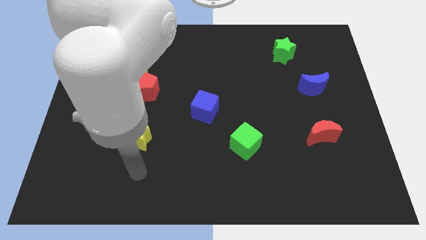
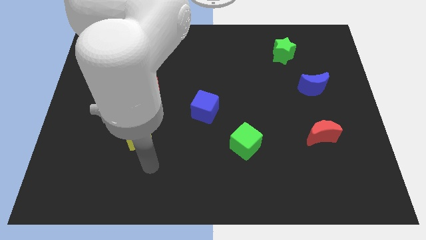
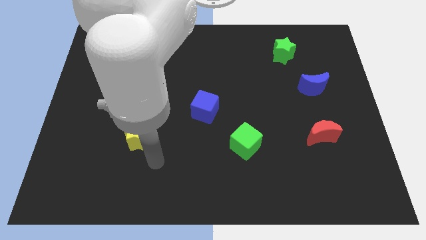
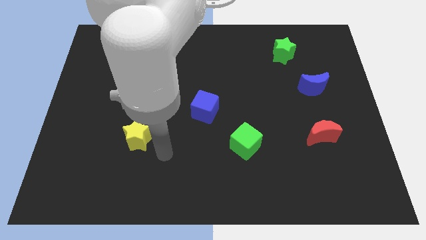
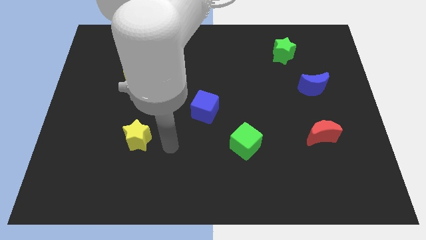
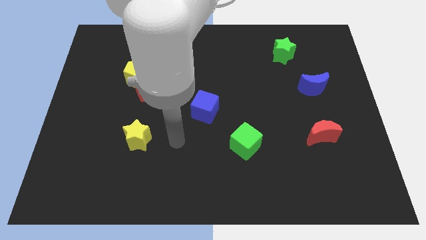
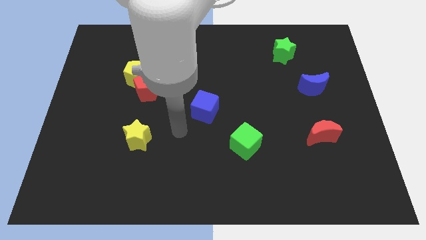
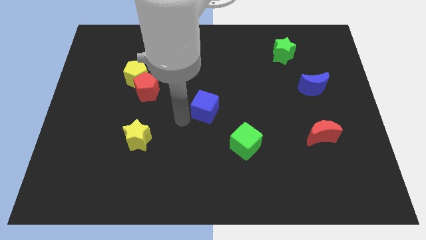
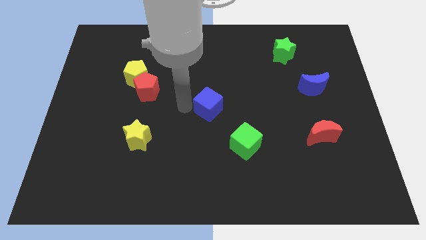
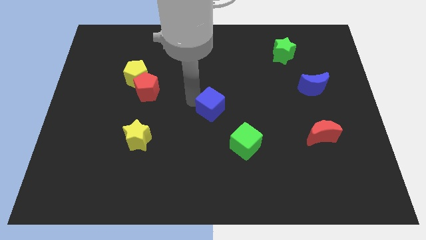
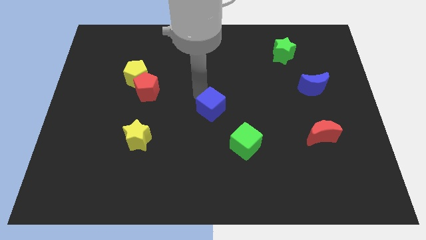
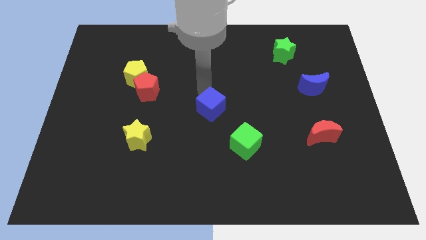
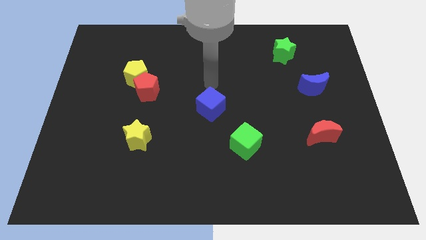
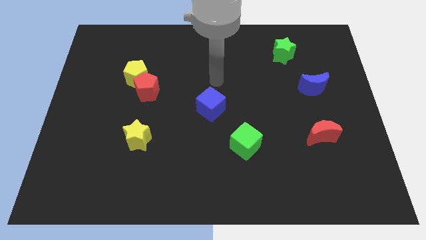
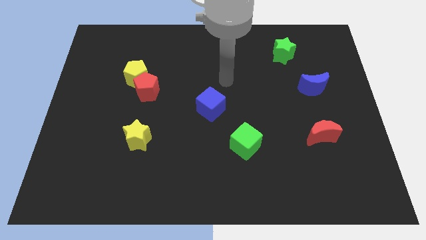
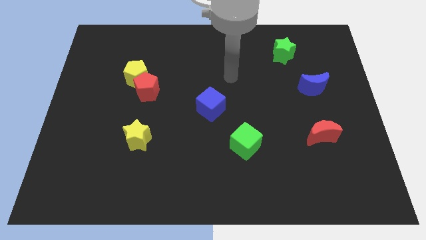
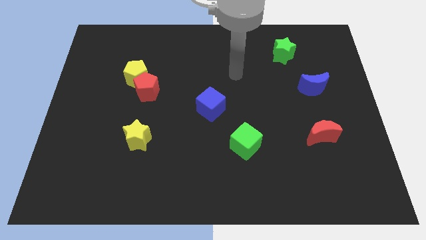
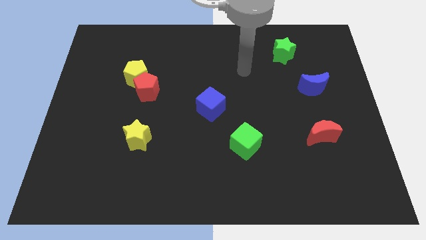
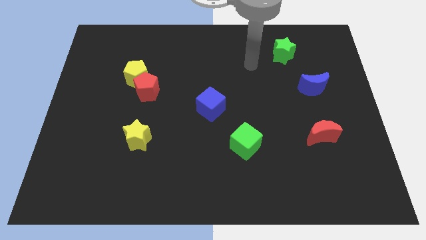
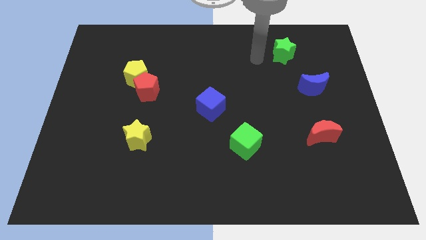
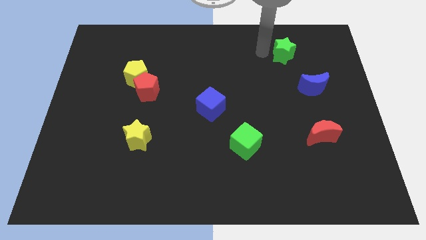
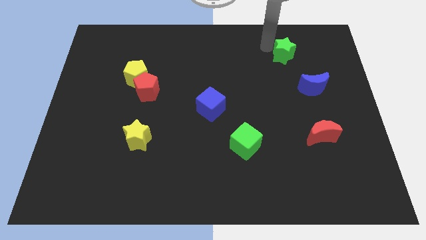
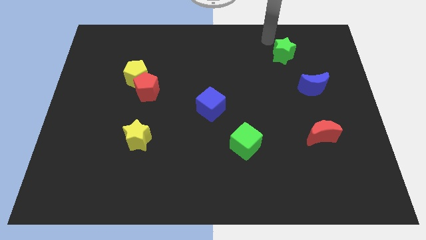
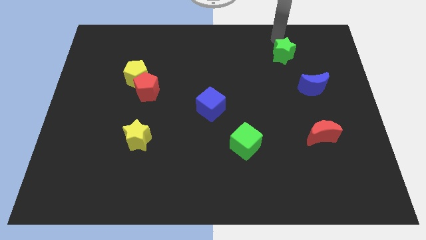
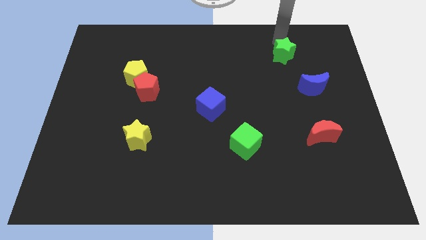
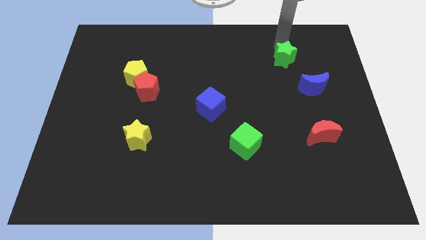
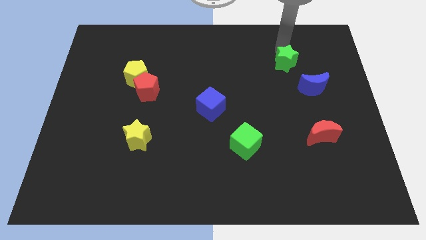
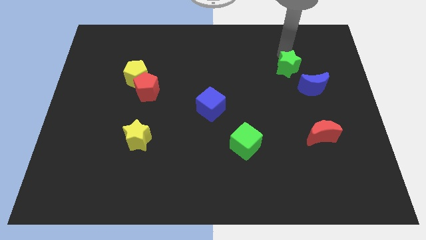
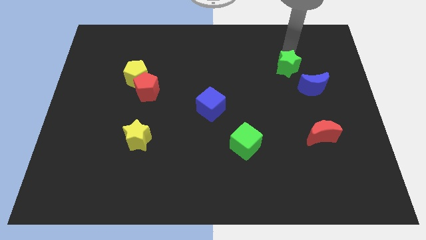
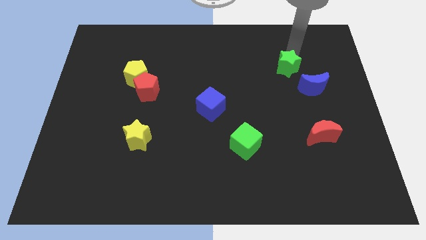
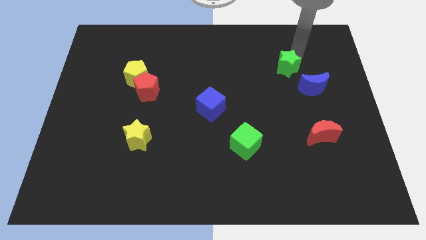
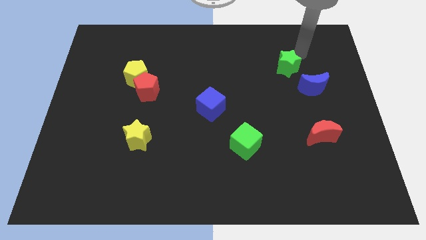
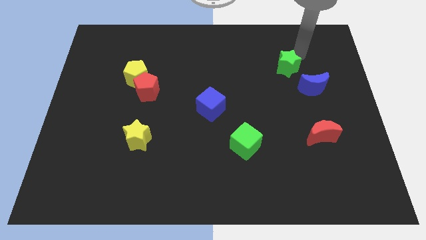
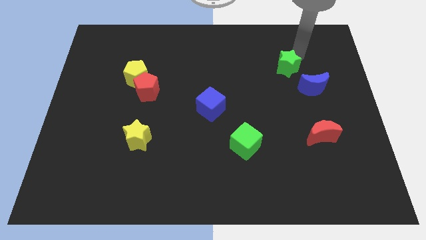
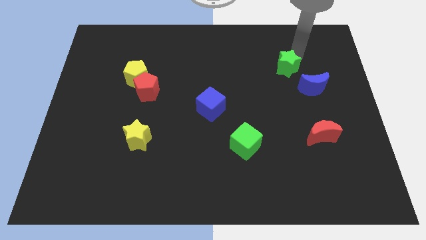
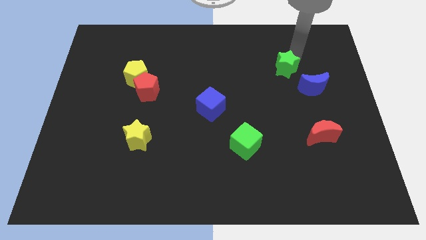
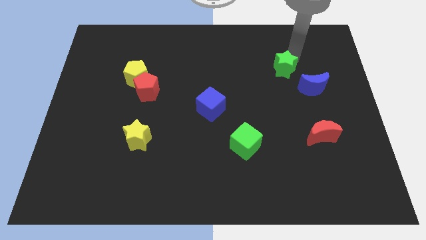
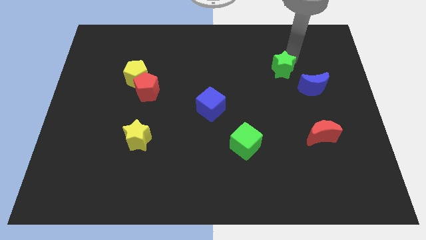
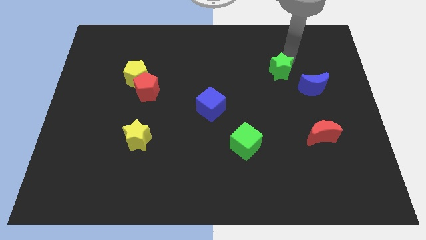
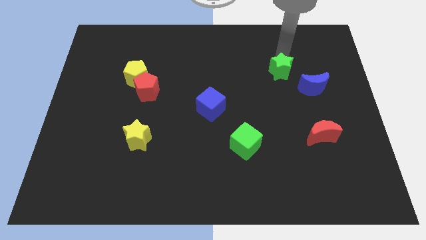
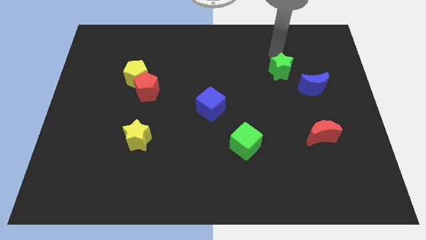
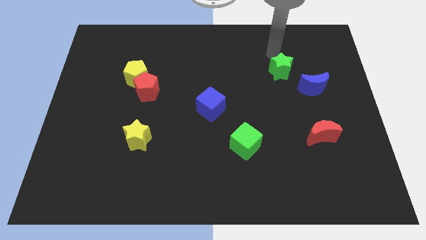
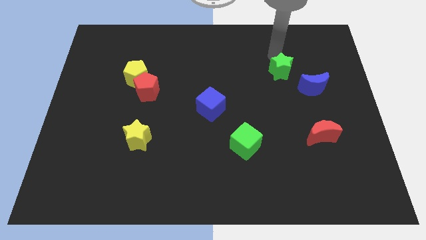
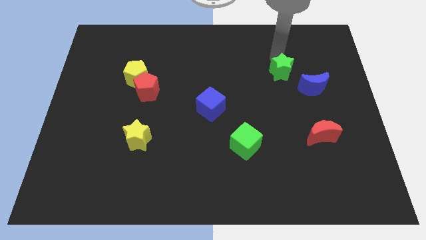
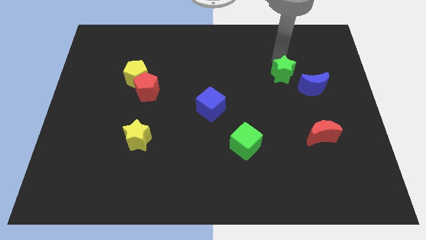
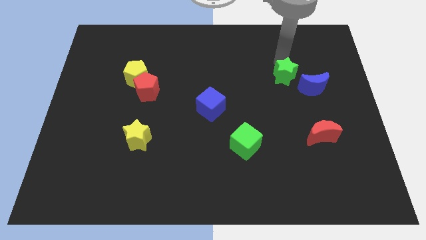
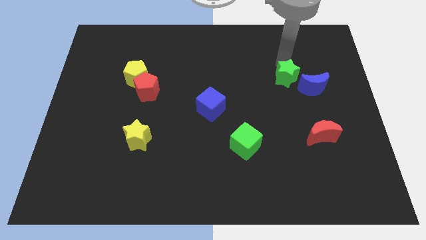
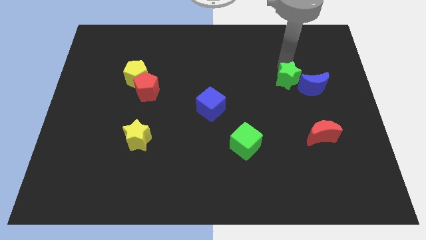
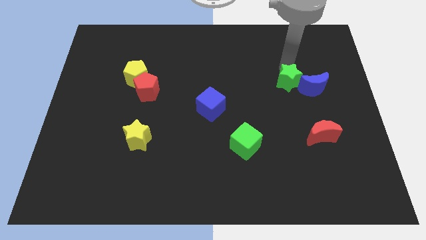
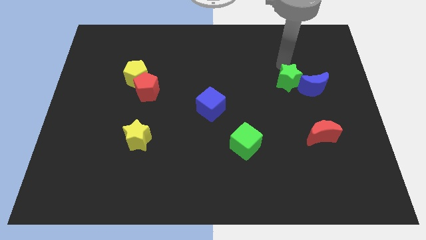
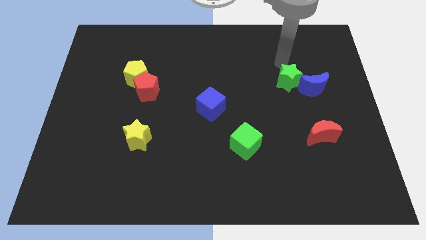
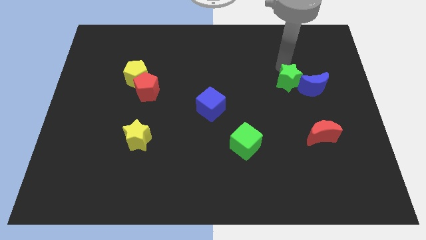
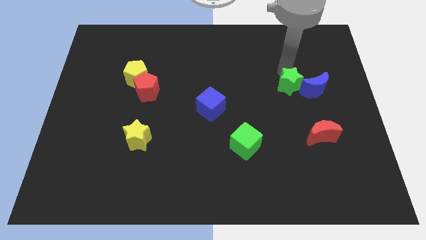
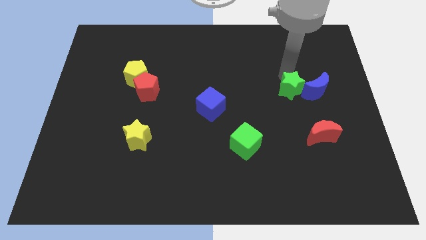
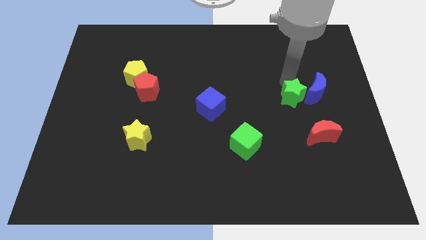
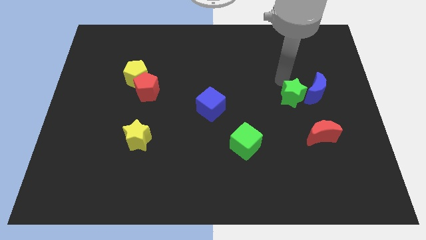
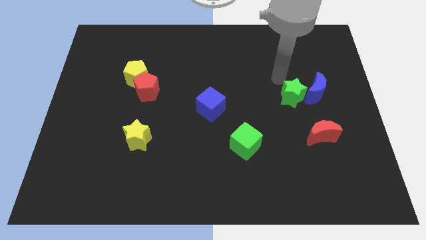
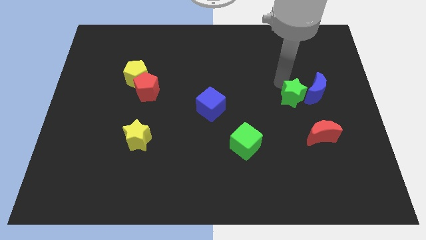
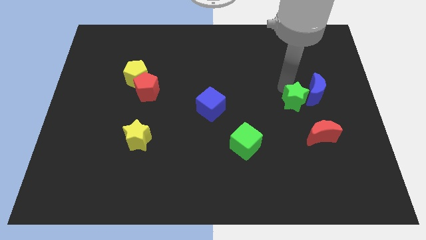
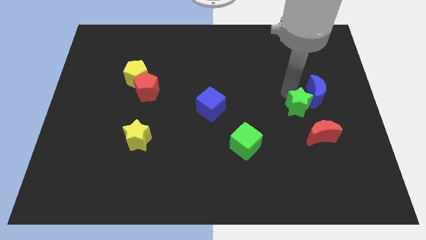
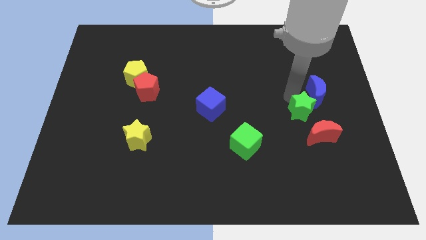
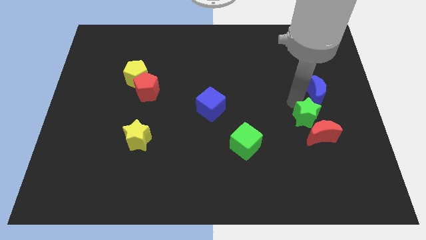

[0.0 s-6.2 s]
push the green star to the red moon

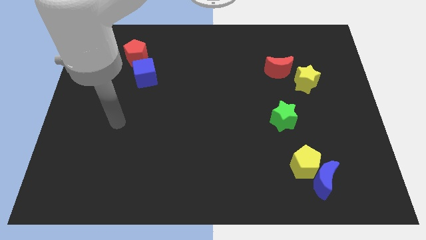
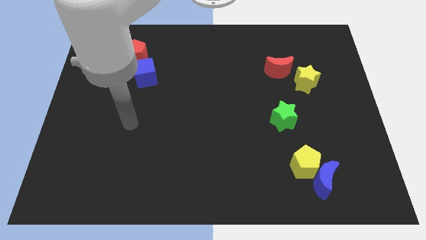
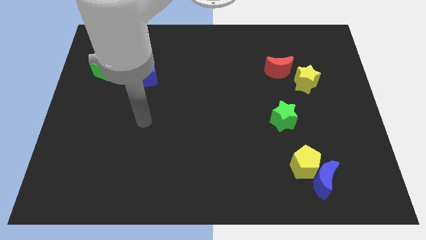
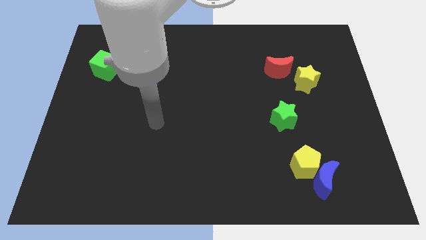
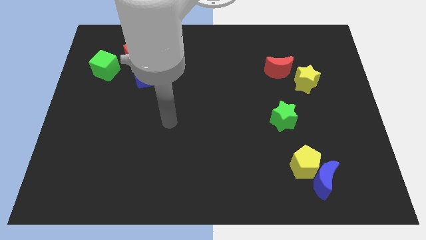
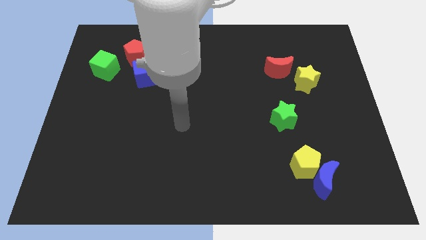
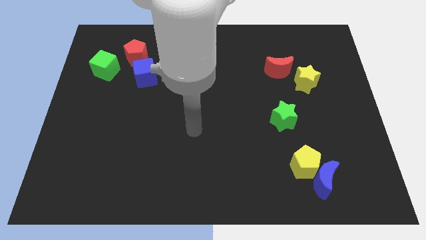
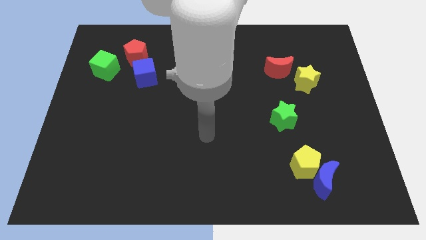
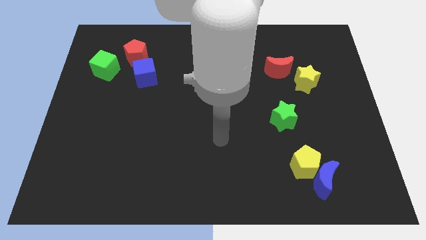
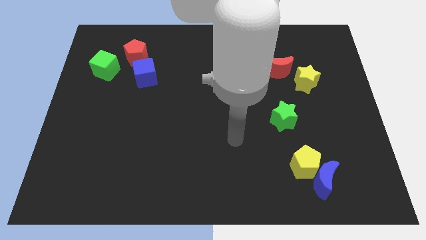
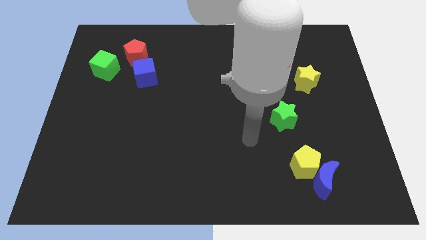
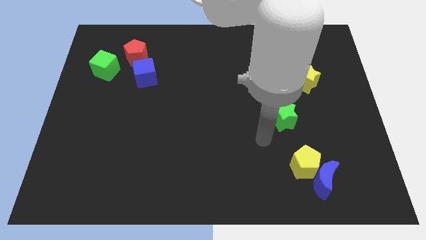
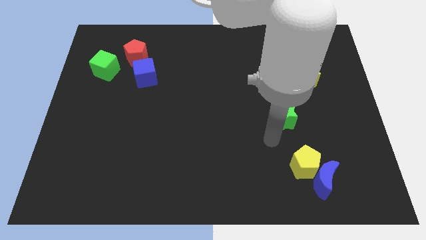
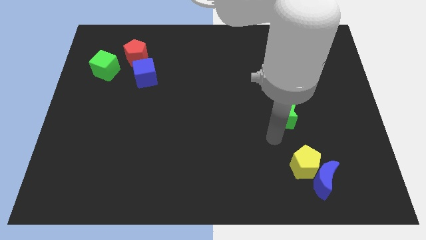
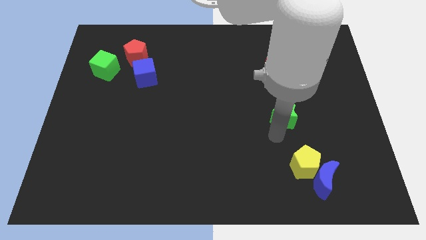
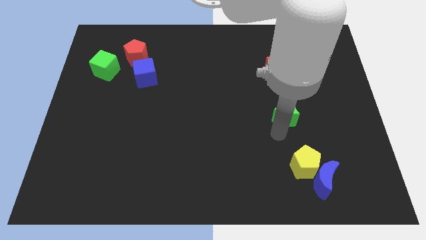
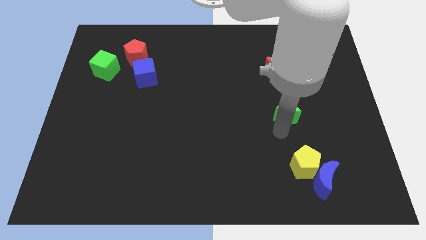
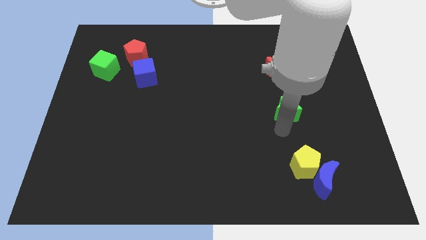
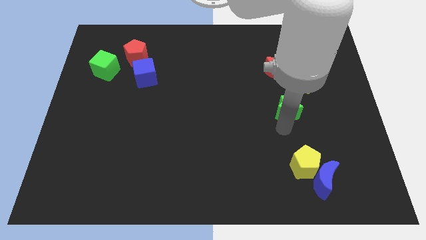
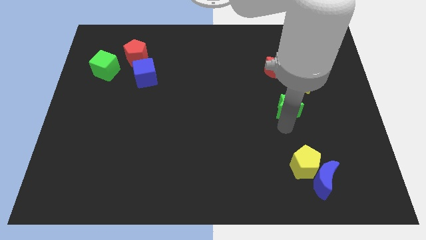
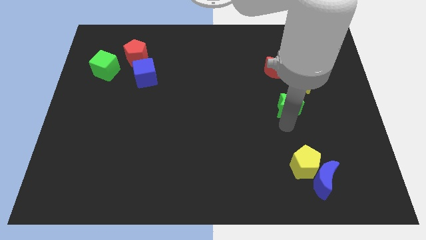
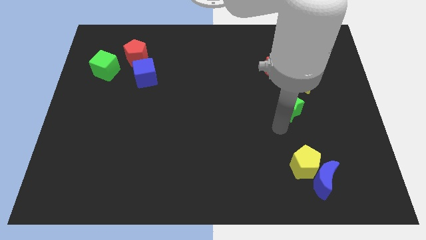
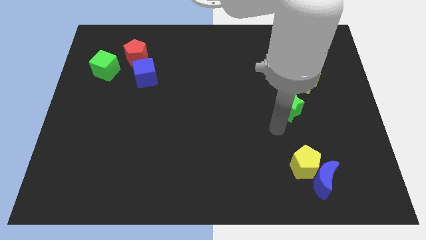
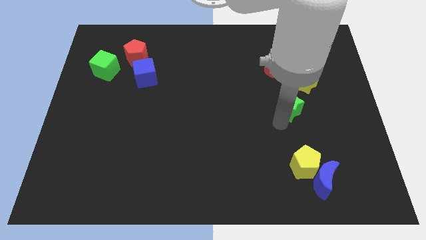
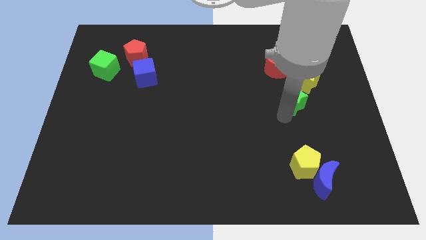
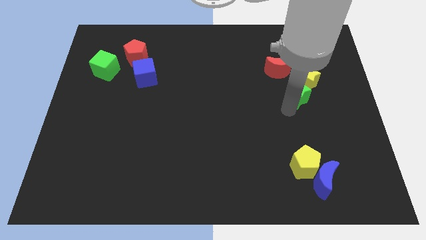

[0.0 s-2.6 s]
push the green star close to the yellow star
